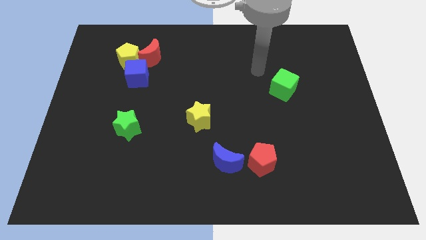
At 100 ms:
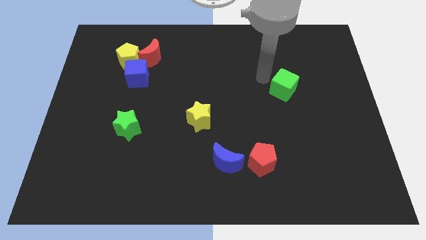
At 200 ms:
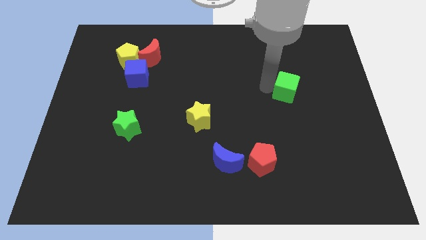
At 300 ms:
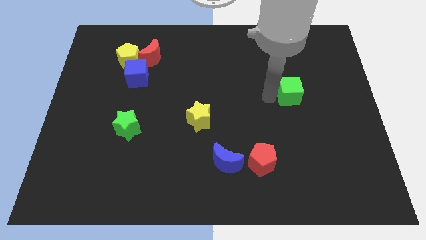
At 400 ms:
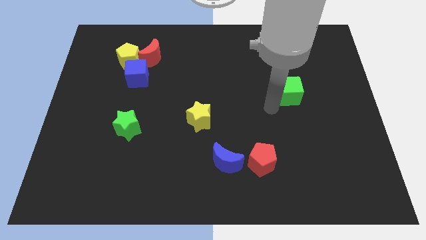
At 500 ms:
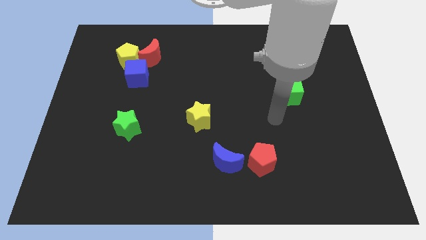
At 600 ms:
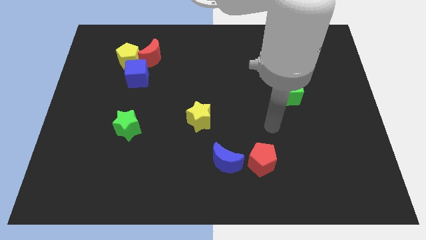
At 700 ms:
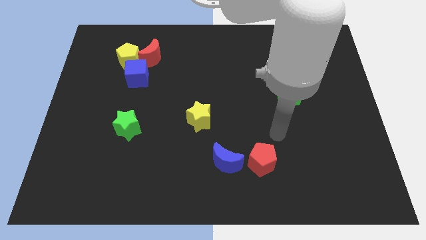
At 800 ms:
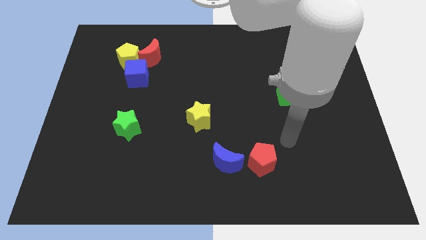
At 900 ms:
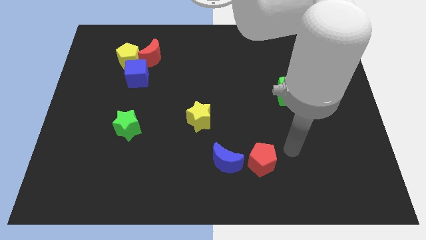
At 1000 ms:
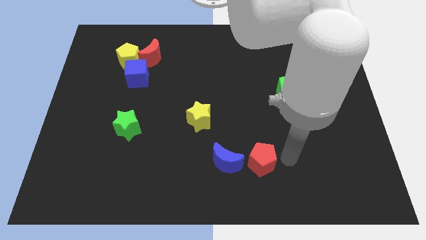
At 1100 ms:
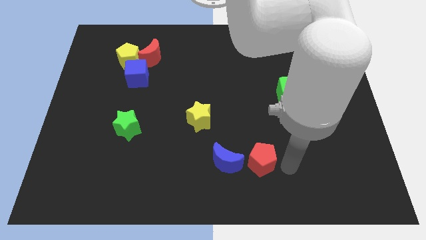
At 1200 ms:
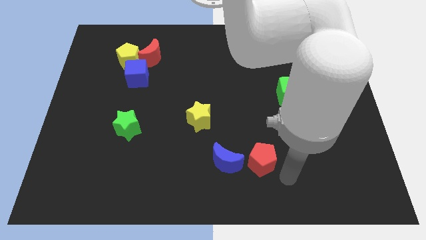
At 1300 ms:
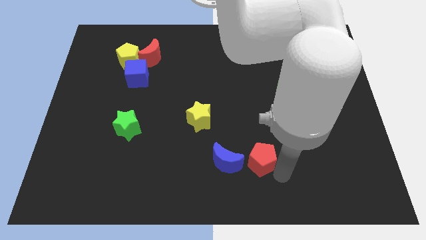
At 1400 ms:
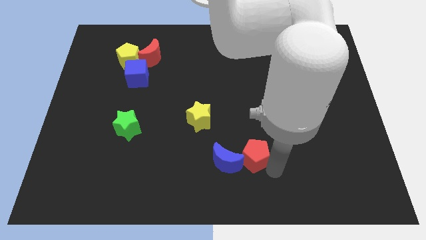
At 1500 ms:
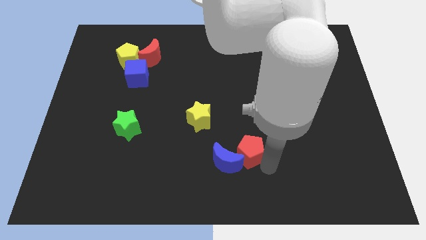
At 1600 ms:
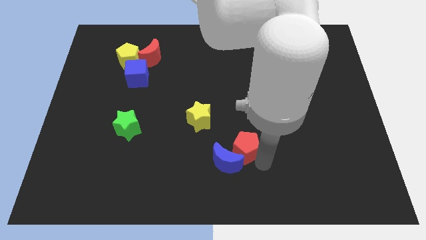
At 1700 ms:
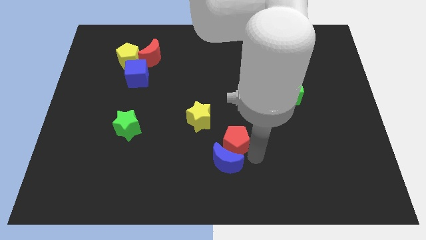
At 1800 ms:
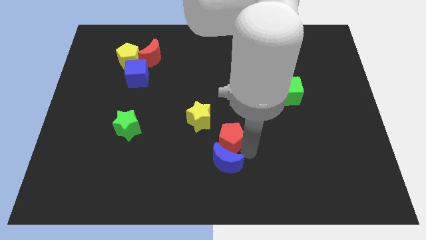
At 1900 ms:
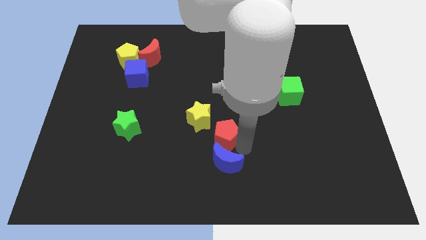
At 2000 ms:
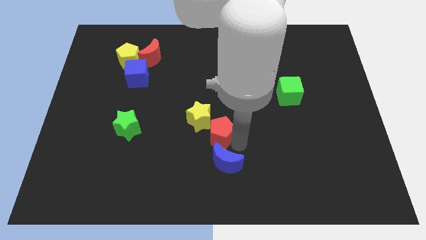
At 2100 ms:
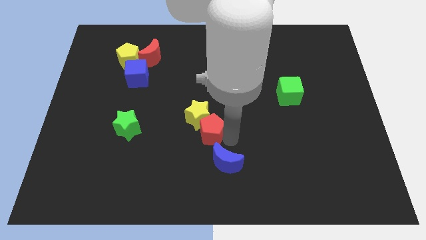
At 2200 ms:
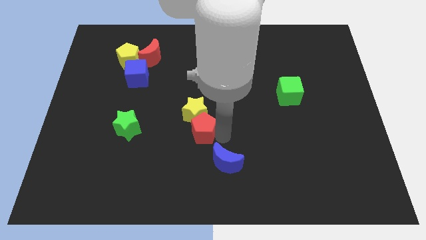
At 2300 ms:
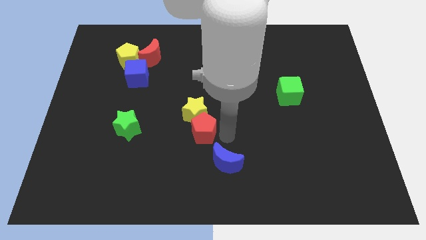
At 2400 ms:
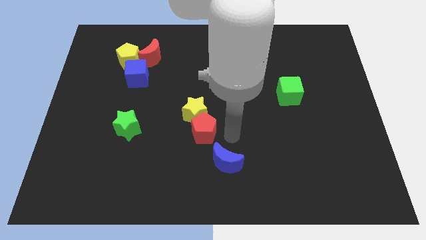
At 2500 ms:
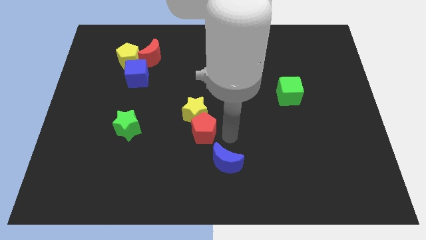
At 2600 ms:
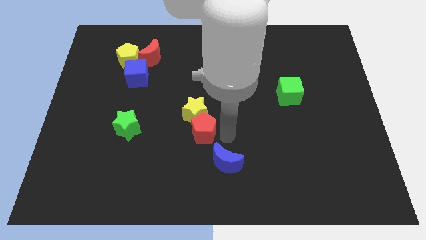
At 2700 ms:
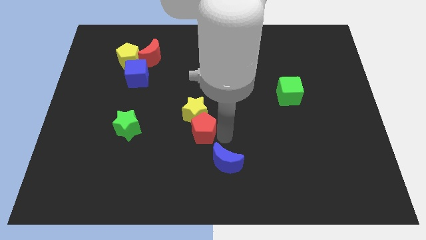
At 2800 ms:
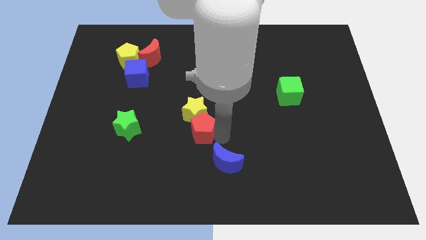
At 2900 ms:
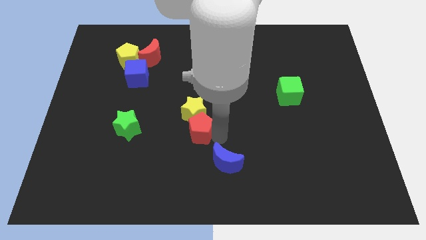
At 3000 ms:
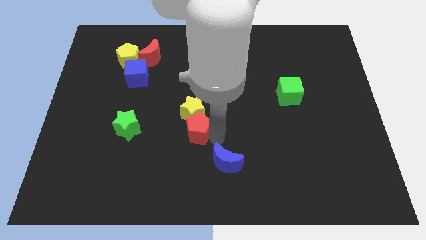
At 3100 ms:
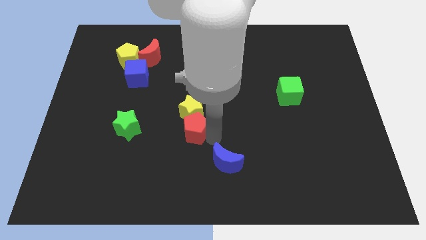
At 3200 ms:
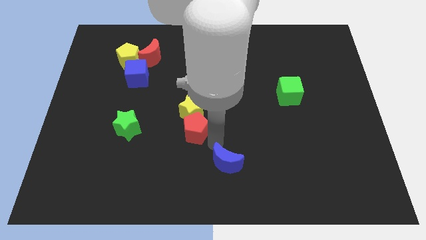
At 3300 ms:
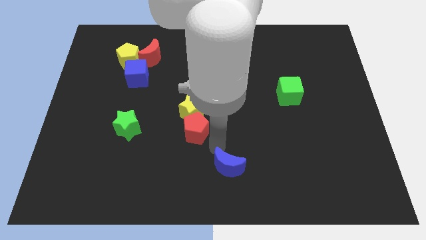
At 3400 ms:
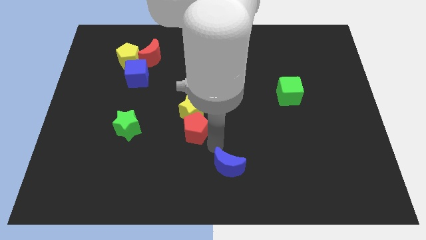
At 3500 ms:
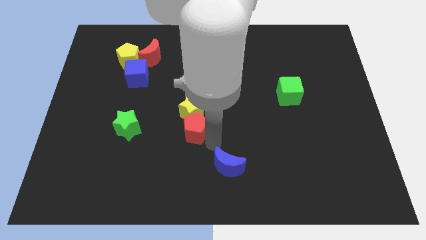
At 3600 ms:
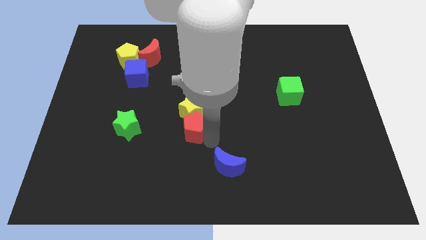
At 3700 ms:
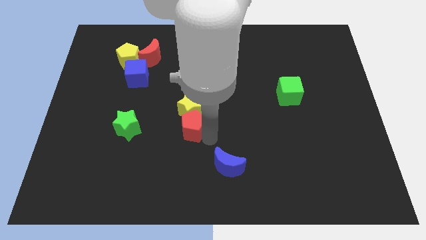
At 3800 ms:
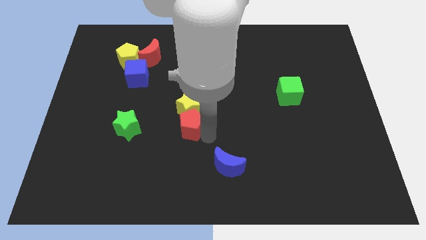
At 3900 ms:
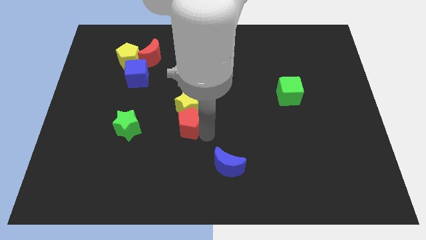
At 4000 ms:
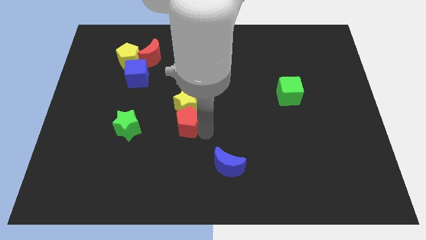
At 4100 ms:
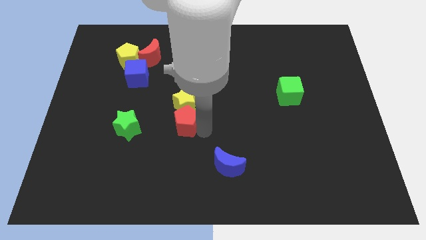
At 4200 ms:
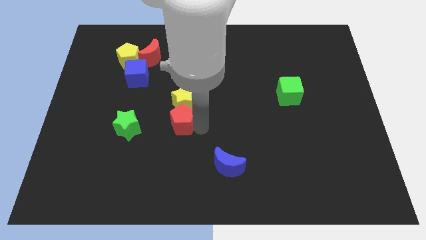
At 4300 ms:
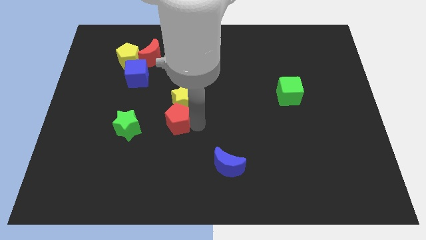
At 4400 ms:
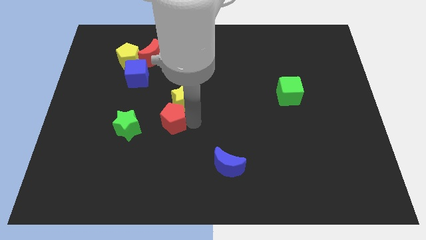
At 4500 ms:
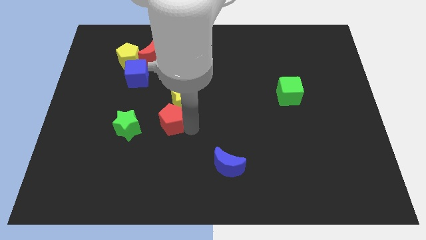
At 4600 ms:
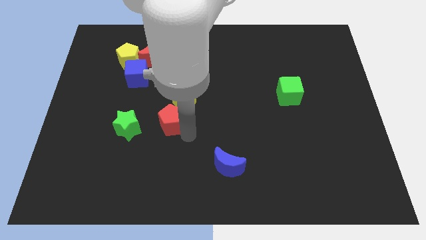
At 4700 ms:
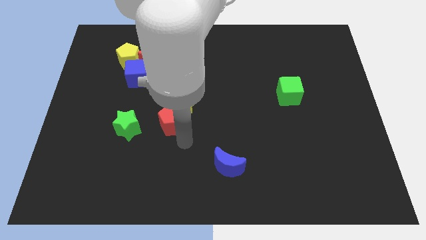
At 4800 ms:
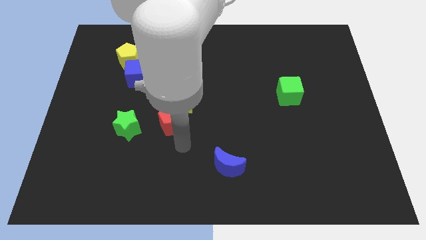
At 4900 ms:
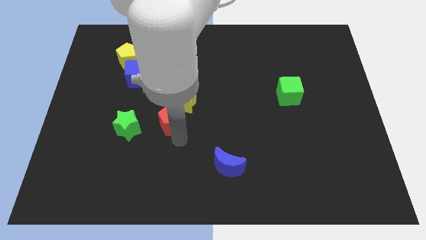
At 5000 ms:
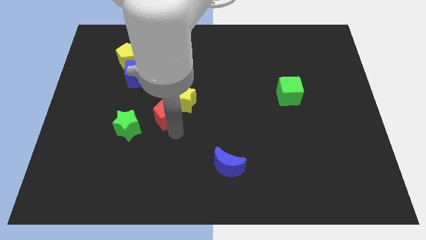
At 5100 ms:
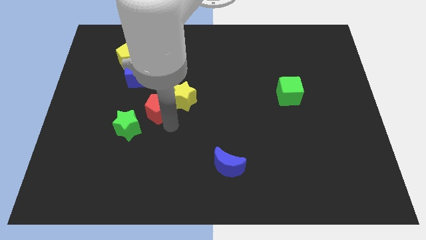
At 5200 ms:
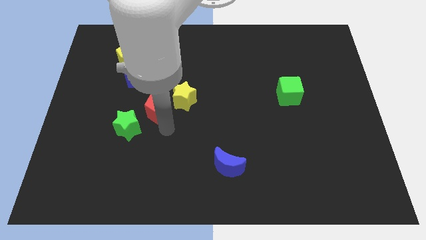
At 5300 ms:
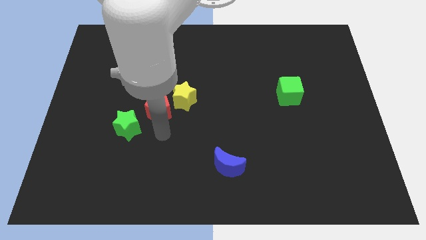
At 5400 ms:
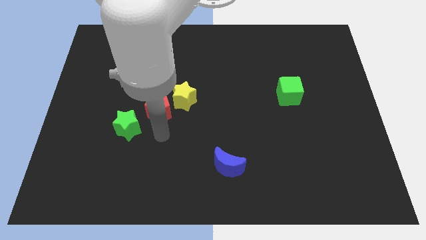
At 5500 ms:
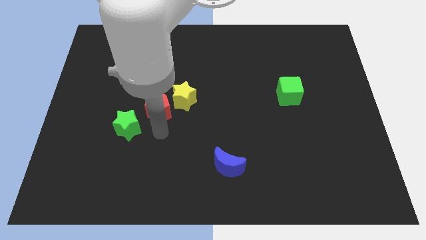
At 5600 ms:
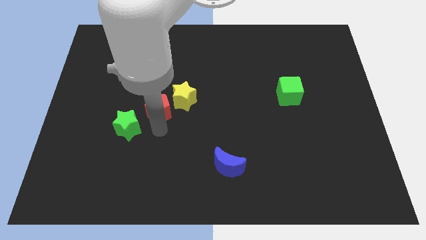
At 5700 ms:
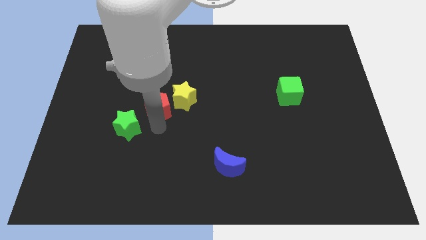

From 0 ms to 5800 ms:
push the red pentagon to the bottom right of the blue cube

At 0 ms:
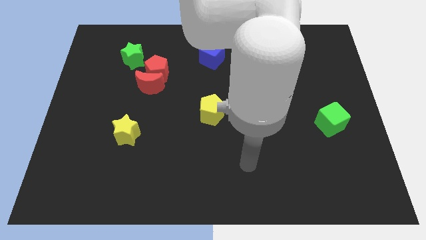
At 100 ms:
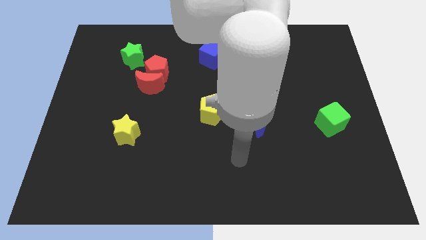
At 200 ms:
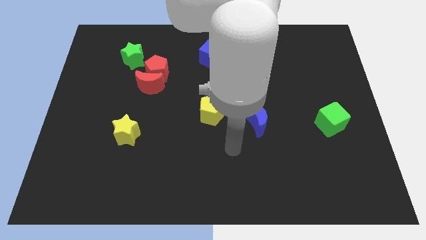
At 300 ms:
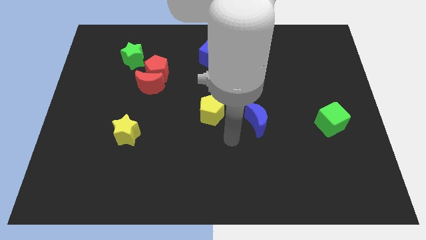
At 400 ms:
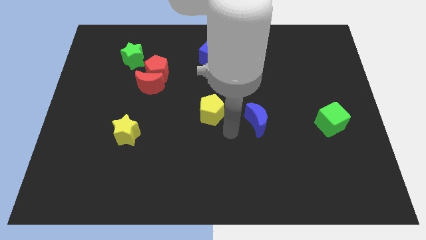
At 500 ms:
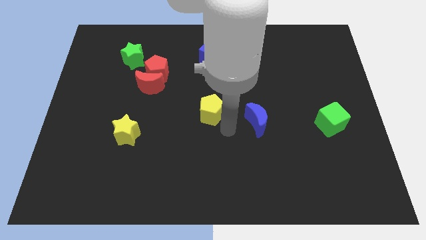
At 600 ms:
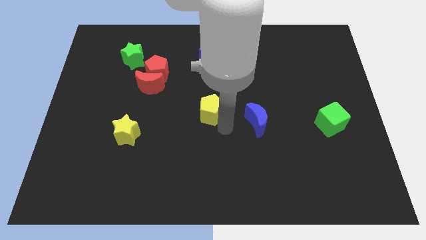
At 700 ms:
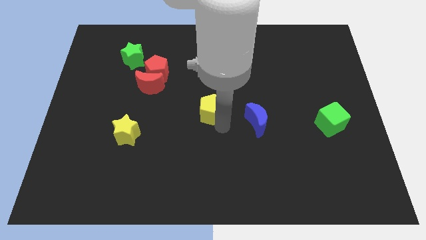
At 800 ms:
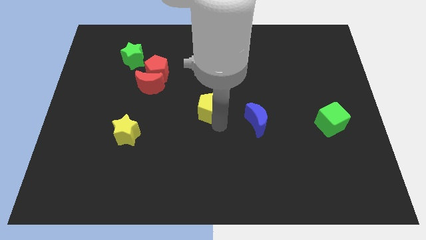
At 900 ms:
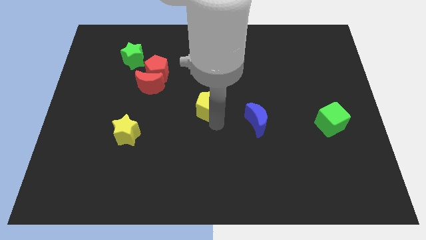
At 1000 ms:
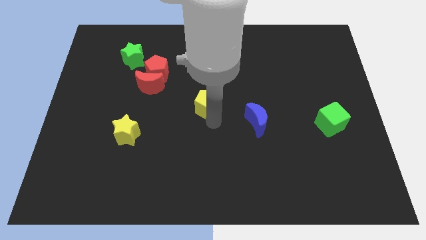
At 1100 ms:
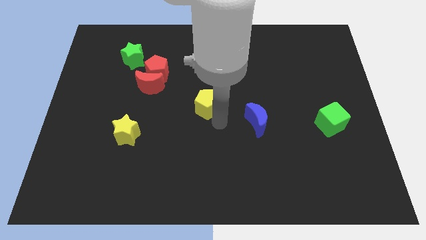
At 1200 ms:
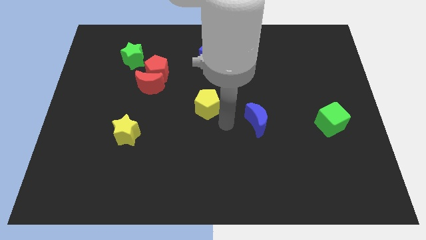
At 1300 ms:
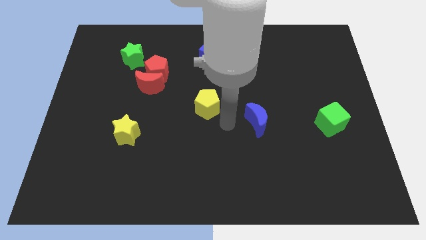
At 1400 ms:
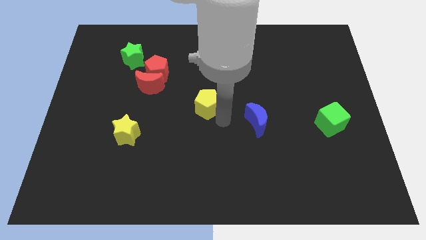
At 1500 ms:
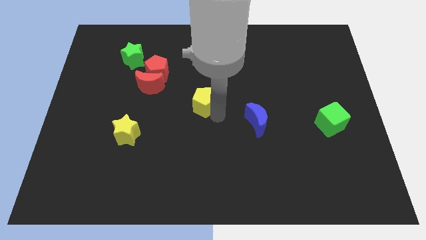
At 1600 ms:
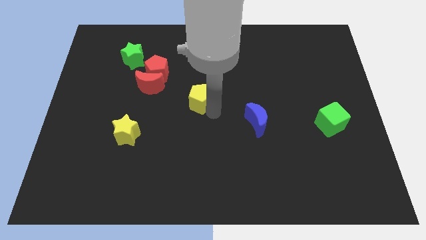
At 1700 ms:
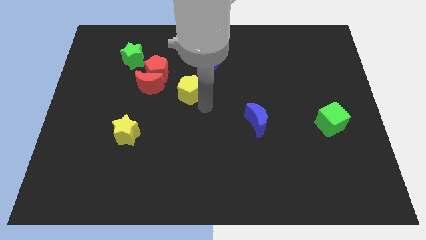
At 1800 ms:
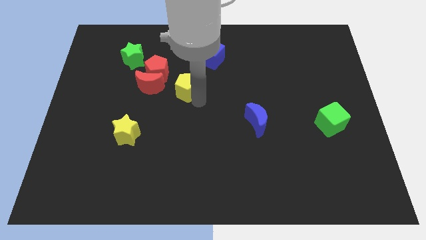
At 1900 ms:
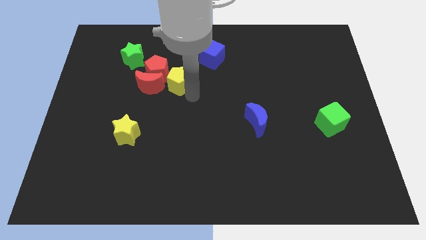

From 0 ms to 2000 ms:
move the yellow pentagon to the top right side of the red moon
